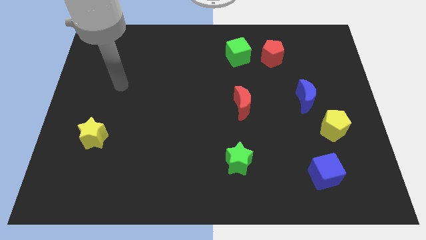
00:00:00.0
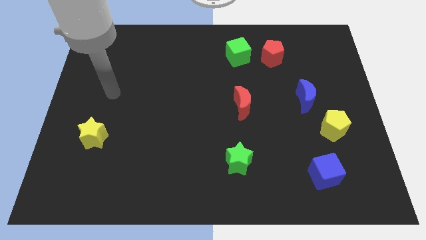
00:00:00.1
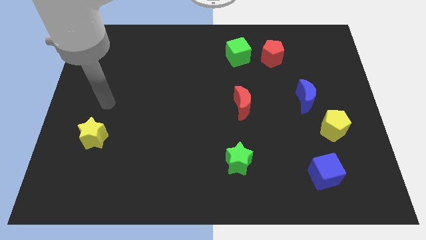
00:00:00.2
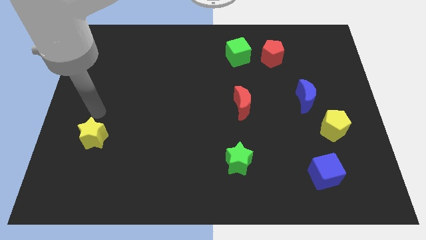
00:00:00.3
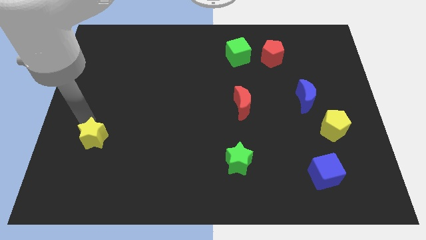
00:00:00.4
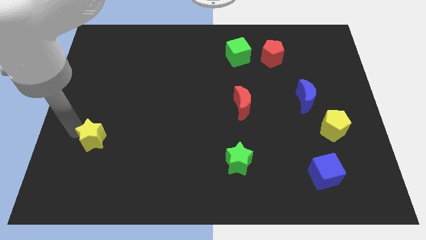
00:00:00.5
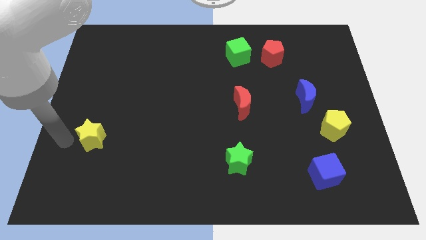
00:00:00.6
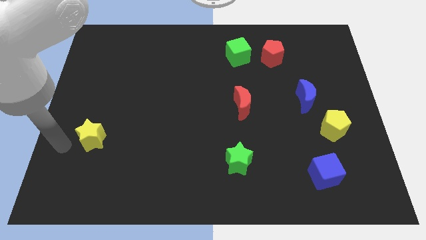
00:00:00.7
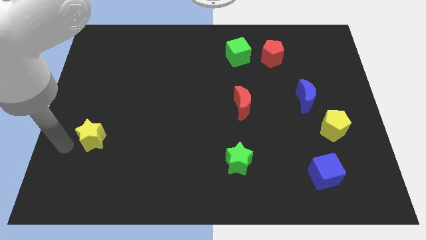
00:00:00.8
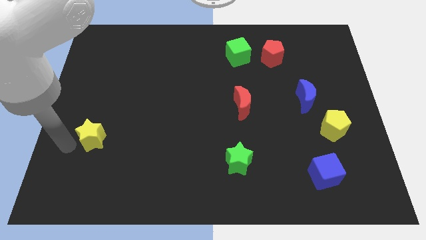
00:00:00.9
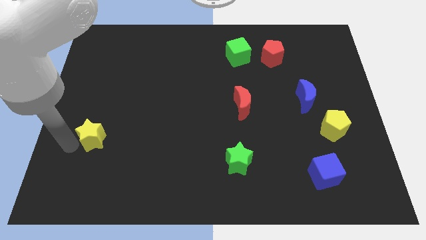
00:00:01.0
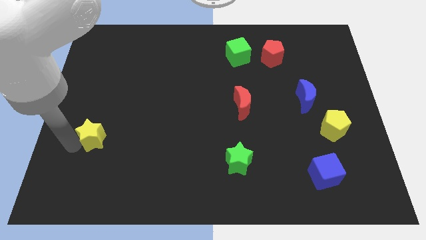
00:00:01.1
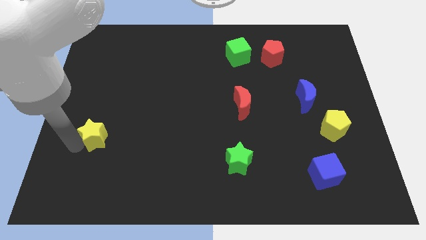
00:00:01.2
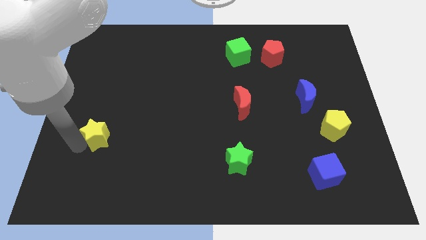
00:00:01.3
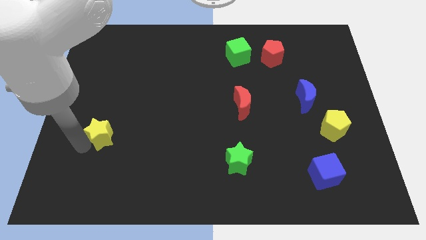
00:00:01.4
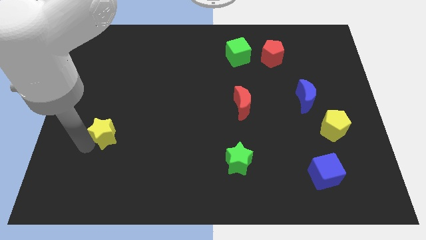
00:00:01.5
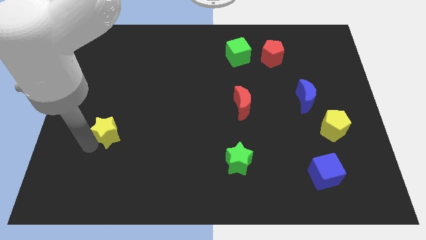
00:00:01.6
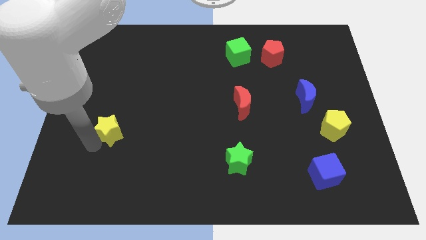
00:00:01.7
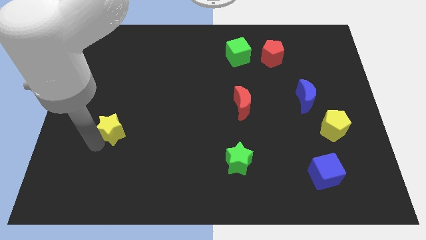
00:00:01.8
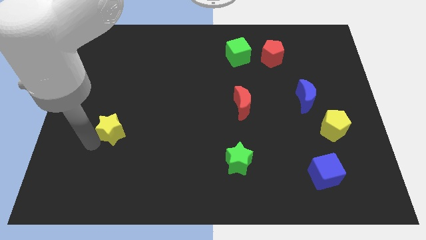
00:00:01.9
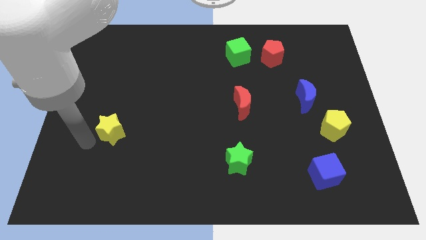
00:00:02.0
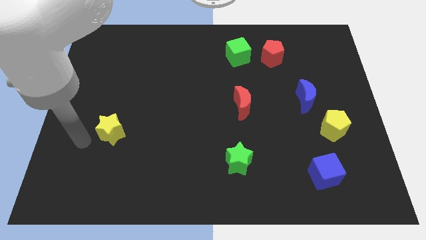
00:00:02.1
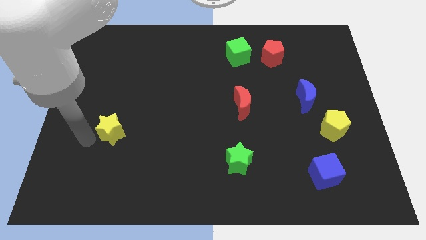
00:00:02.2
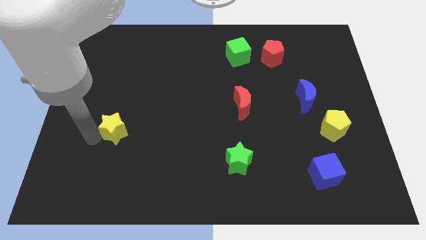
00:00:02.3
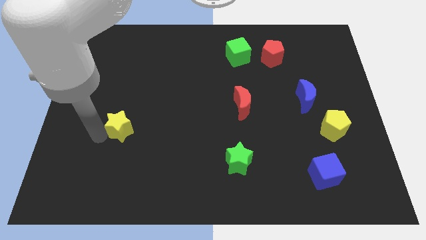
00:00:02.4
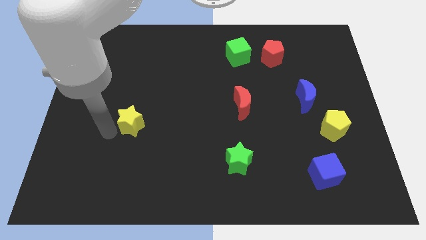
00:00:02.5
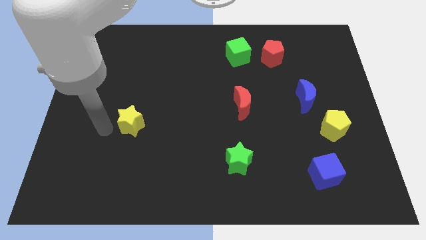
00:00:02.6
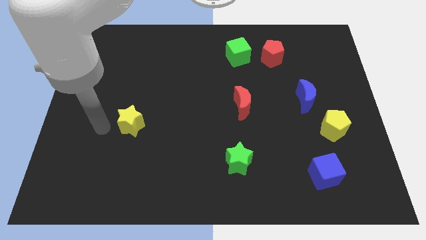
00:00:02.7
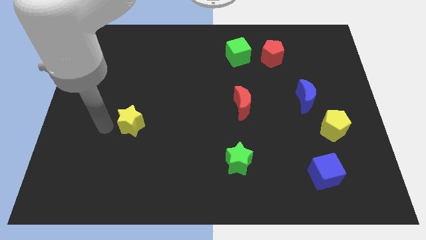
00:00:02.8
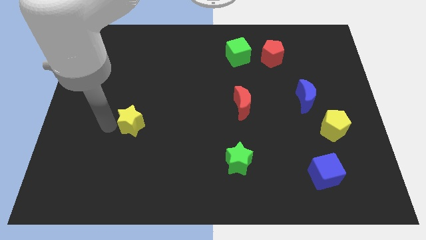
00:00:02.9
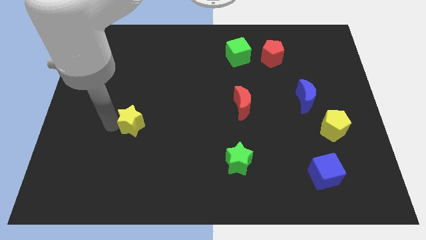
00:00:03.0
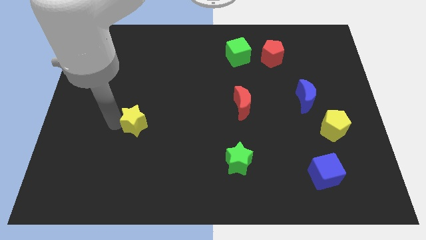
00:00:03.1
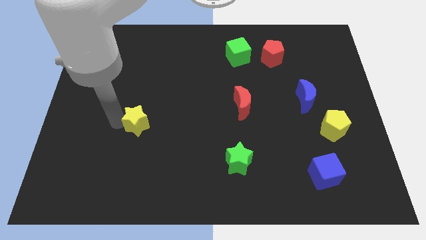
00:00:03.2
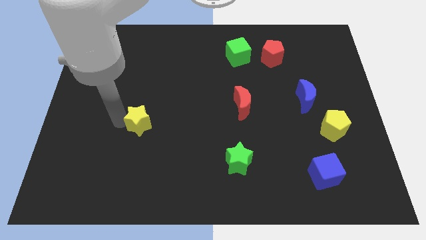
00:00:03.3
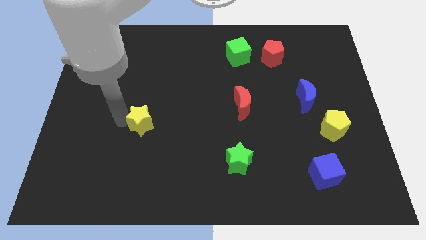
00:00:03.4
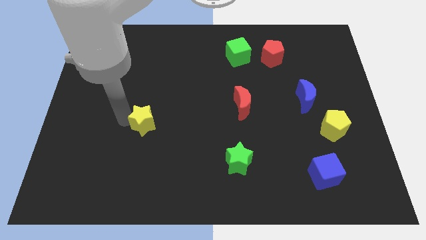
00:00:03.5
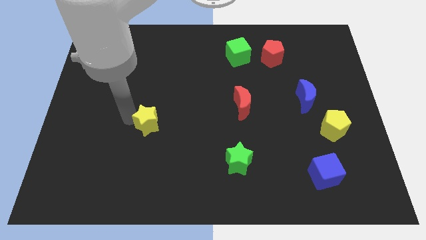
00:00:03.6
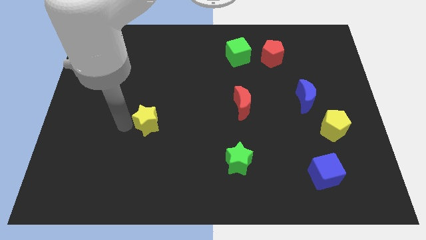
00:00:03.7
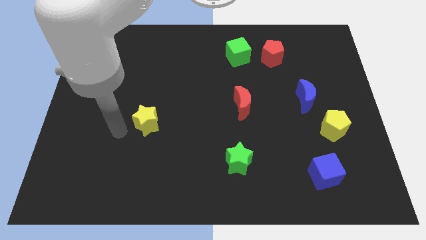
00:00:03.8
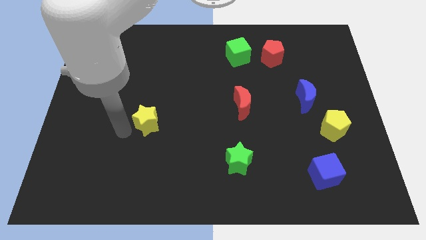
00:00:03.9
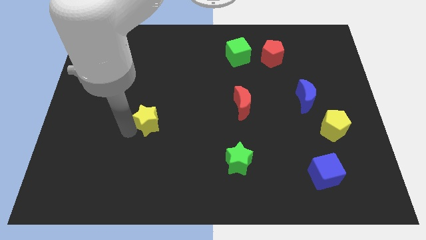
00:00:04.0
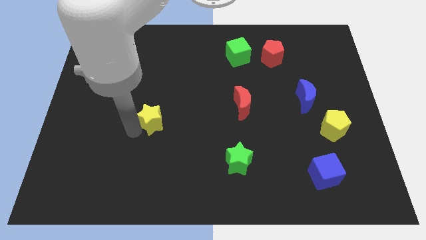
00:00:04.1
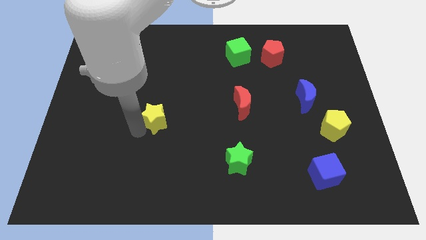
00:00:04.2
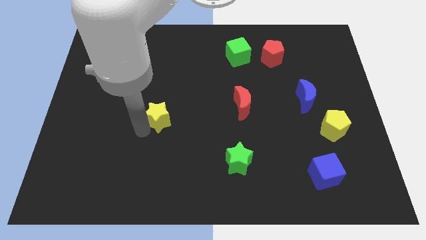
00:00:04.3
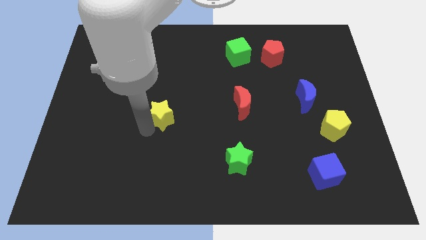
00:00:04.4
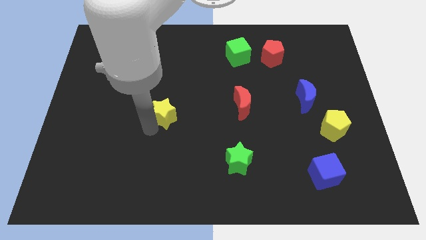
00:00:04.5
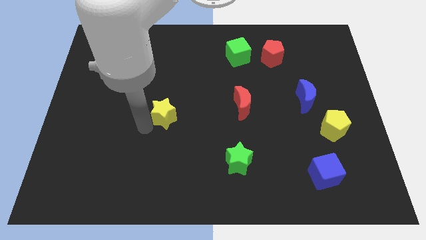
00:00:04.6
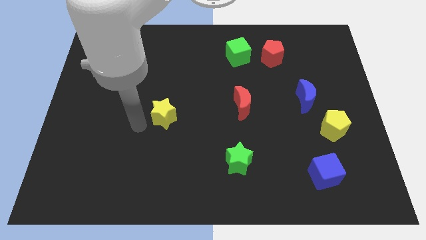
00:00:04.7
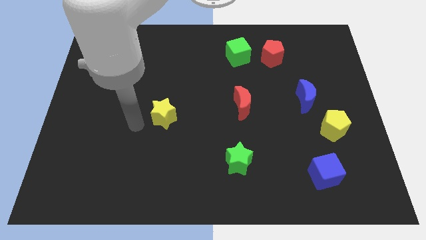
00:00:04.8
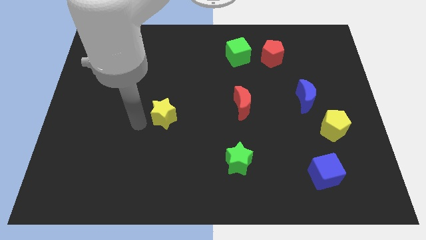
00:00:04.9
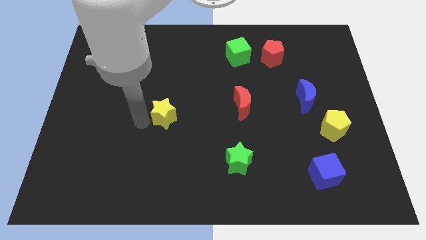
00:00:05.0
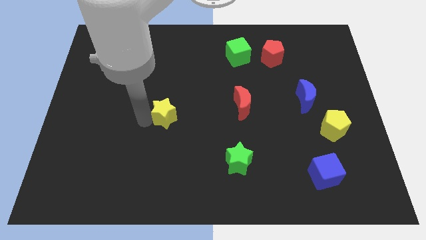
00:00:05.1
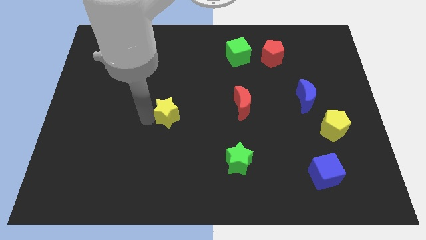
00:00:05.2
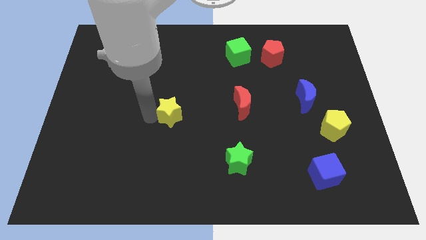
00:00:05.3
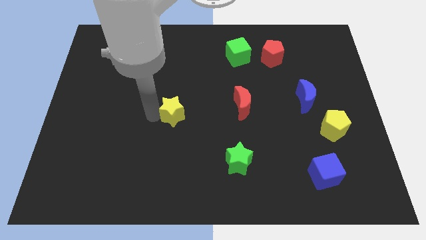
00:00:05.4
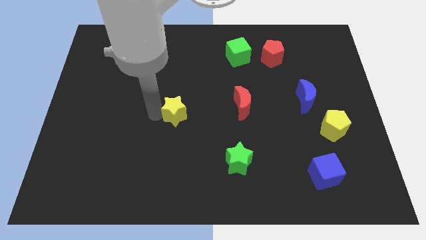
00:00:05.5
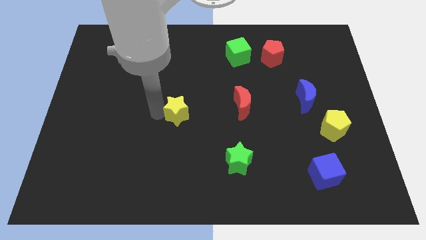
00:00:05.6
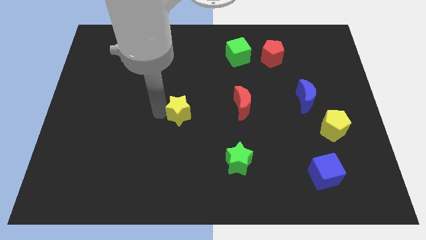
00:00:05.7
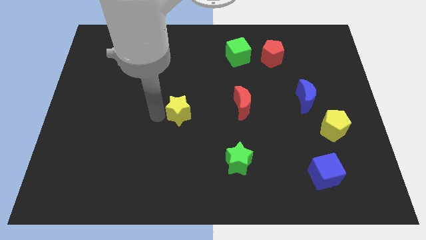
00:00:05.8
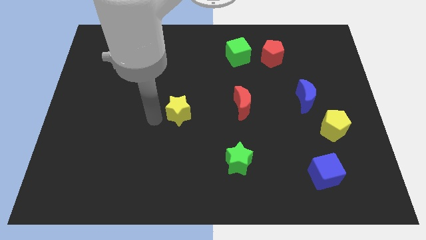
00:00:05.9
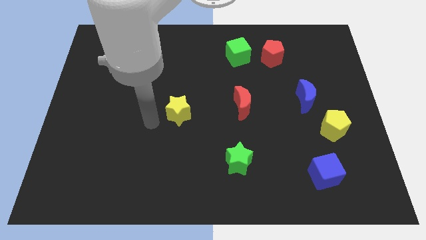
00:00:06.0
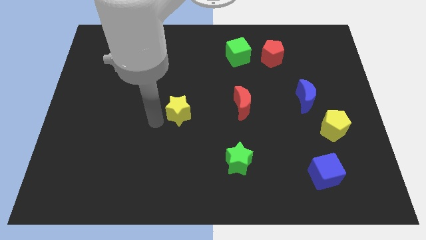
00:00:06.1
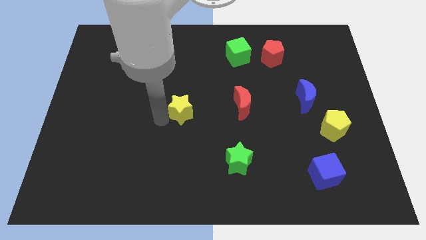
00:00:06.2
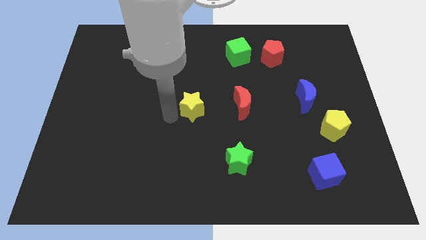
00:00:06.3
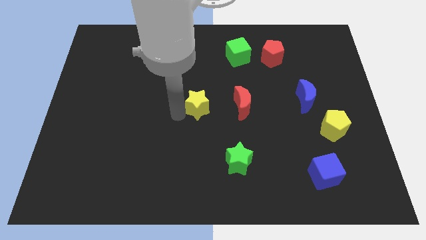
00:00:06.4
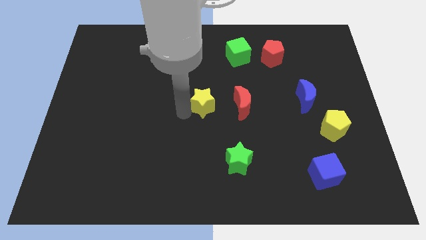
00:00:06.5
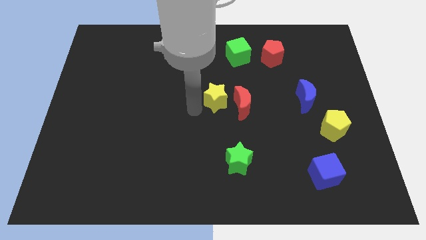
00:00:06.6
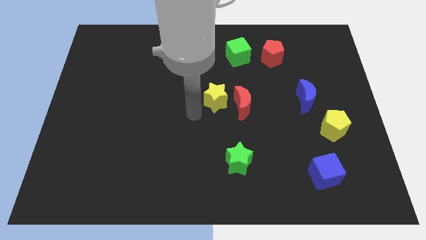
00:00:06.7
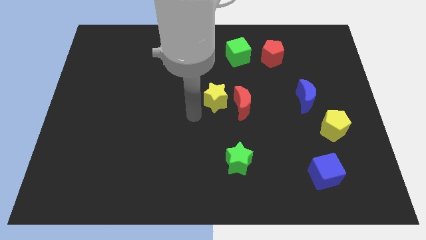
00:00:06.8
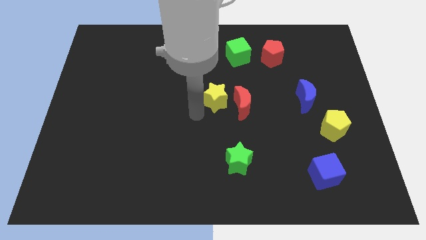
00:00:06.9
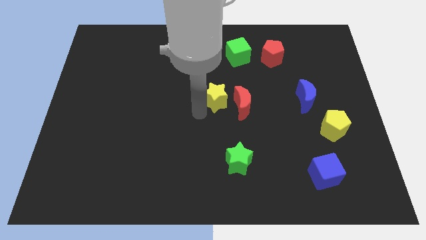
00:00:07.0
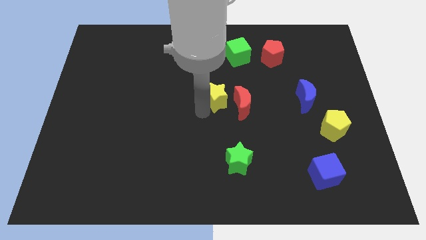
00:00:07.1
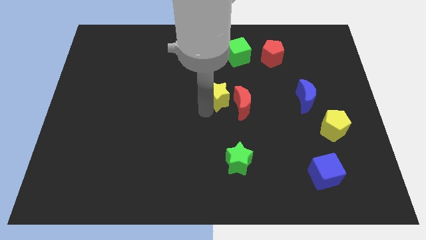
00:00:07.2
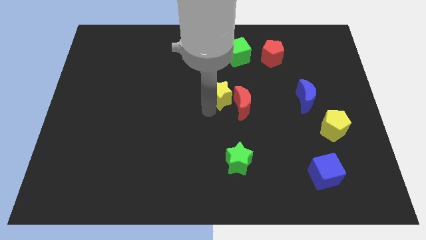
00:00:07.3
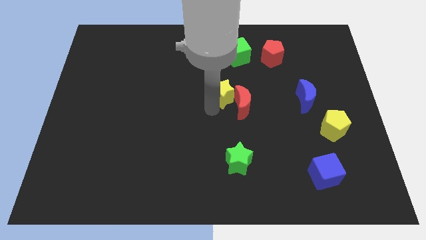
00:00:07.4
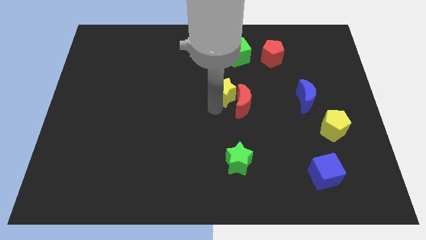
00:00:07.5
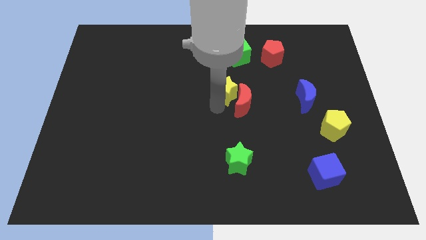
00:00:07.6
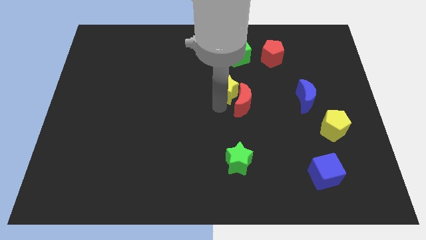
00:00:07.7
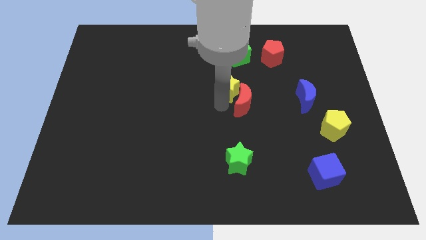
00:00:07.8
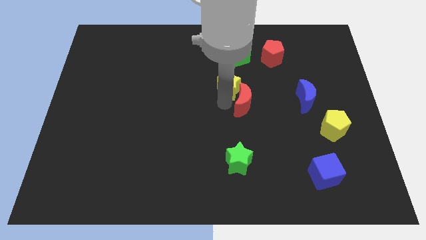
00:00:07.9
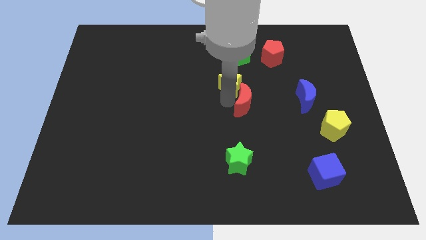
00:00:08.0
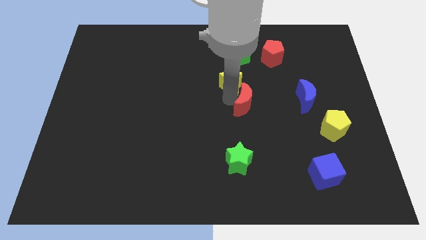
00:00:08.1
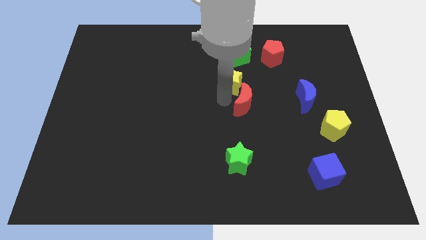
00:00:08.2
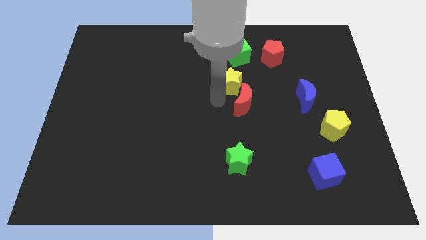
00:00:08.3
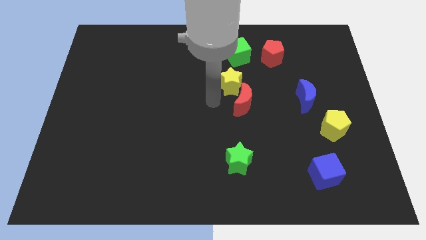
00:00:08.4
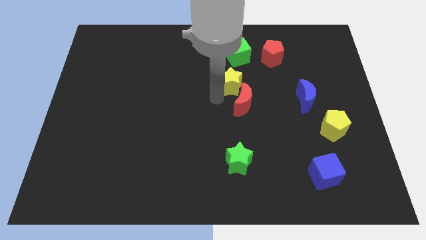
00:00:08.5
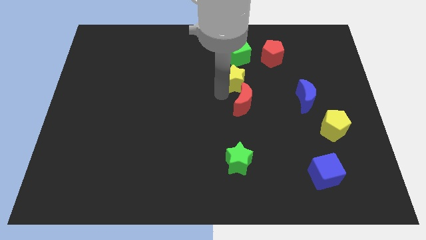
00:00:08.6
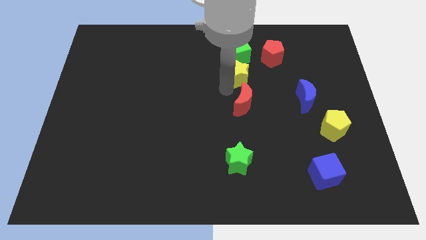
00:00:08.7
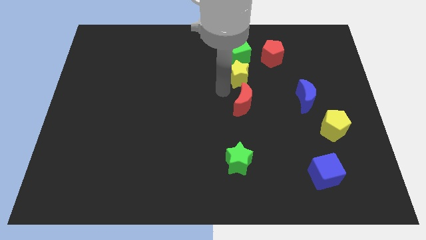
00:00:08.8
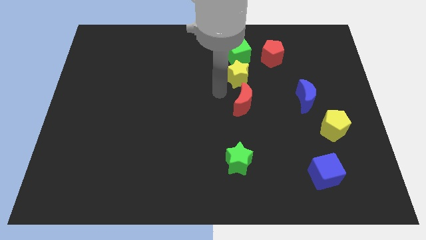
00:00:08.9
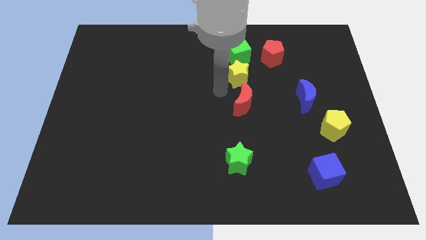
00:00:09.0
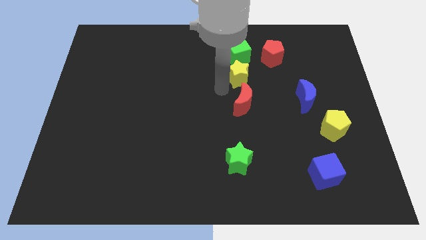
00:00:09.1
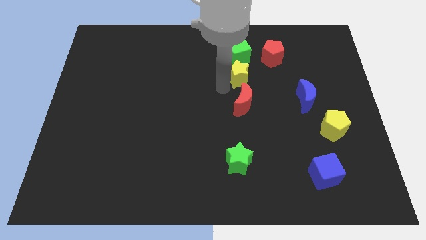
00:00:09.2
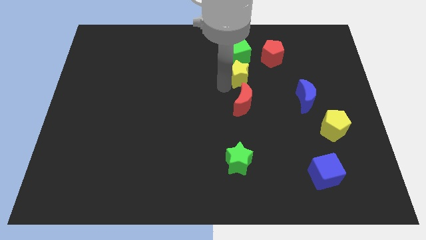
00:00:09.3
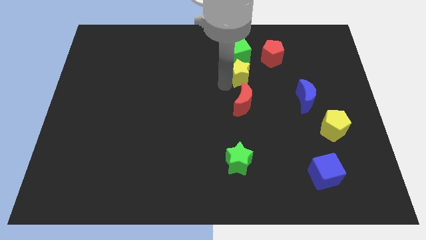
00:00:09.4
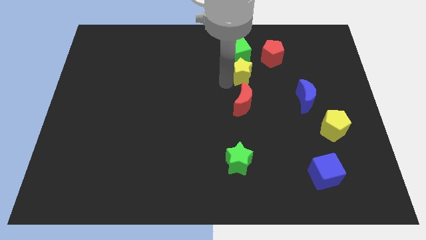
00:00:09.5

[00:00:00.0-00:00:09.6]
put the yellow star diagonally down and to the right of the green cube
